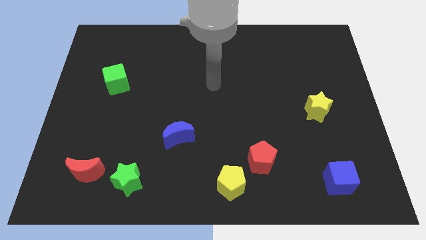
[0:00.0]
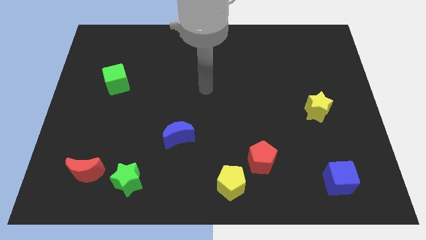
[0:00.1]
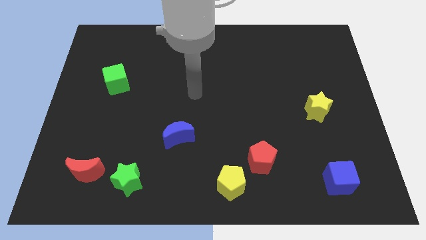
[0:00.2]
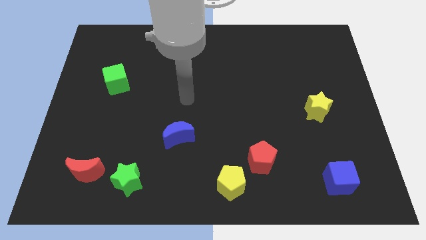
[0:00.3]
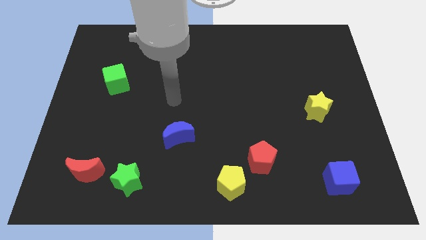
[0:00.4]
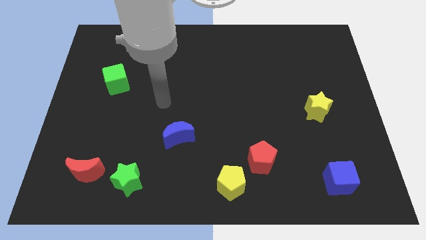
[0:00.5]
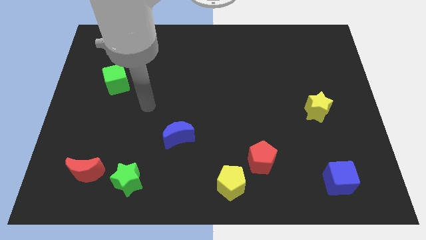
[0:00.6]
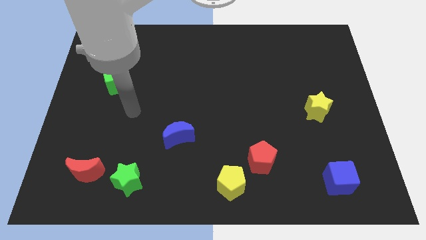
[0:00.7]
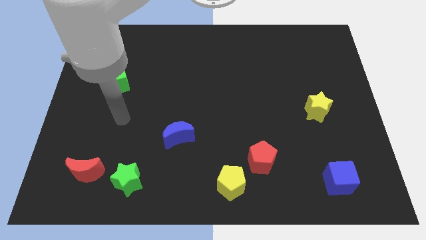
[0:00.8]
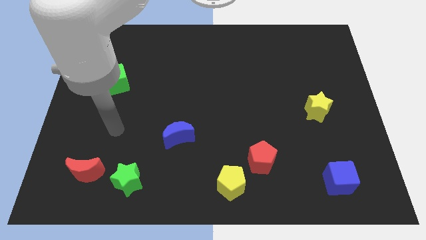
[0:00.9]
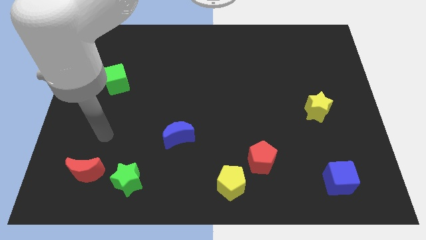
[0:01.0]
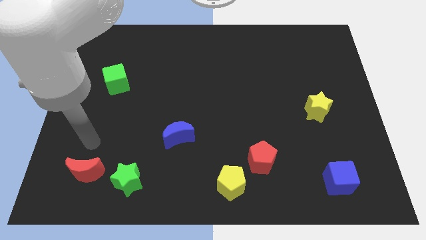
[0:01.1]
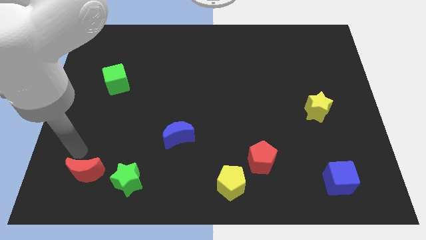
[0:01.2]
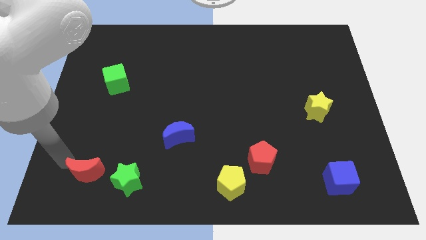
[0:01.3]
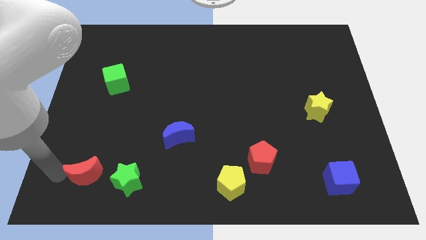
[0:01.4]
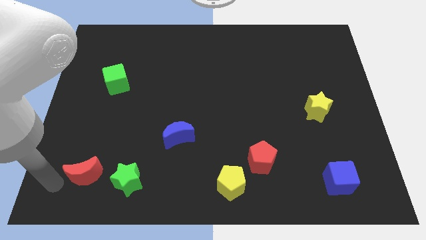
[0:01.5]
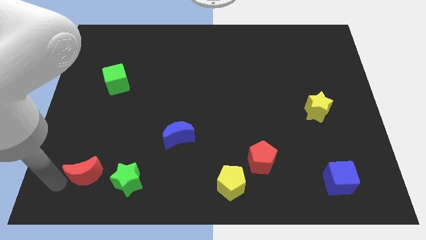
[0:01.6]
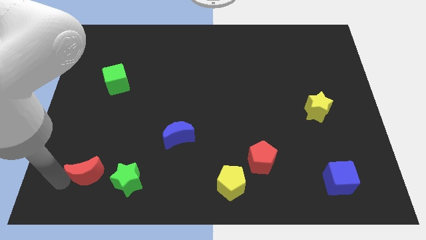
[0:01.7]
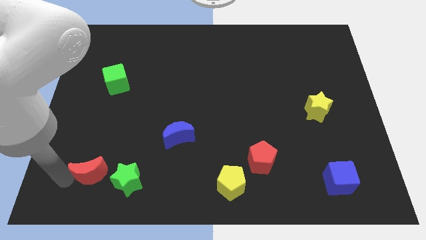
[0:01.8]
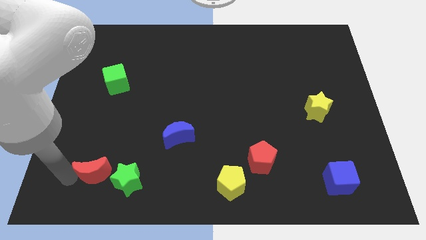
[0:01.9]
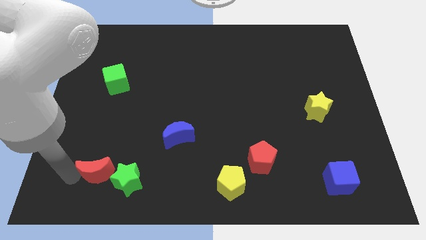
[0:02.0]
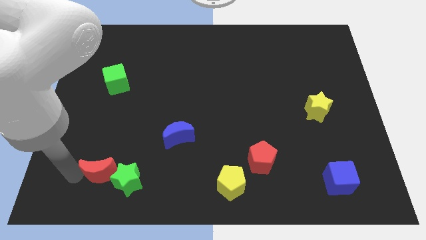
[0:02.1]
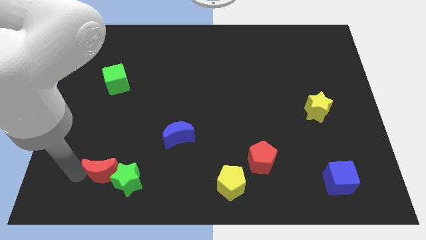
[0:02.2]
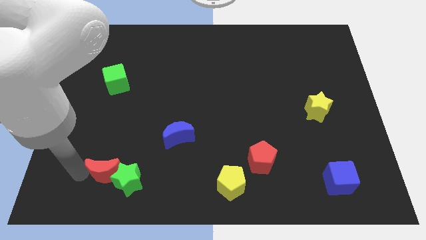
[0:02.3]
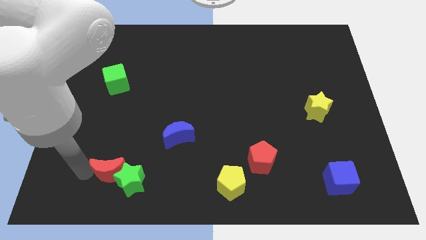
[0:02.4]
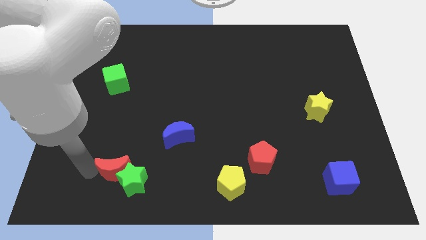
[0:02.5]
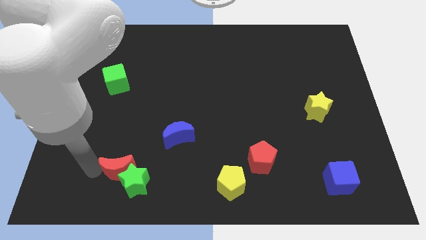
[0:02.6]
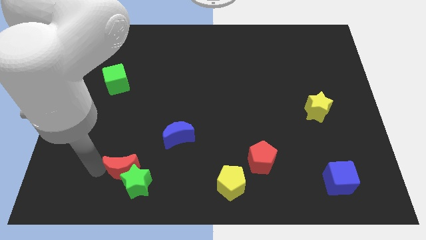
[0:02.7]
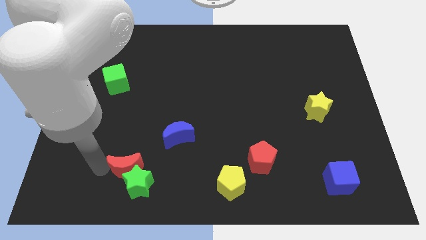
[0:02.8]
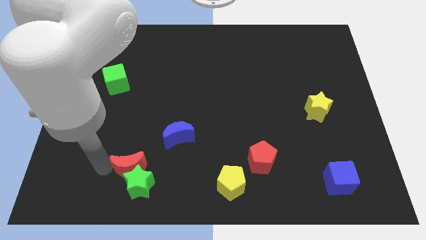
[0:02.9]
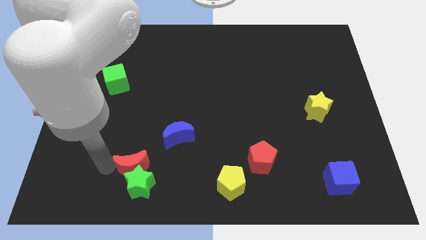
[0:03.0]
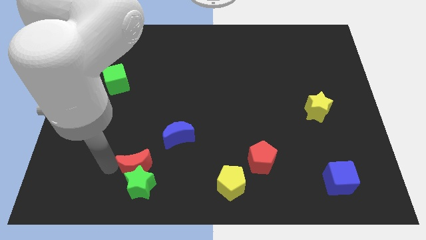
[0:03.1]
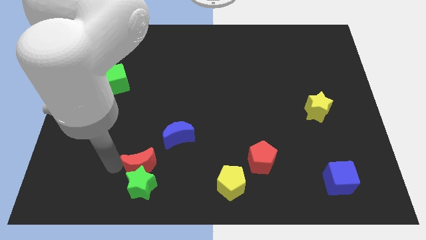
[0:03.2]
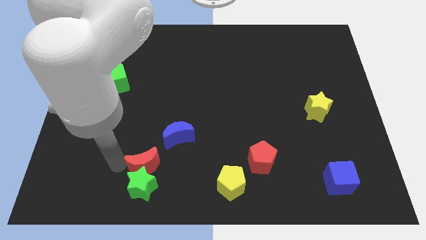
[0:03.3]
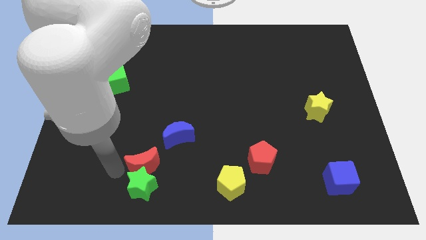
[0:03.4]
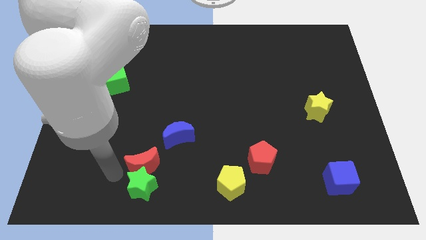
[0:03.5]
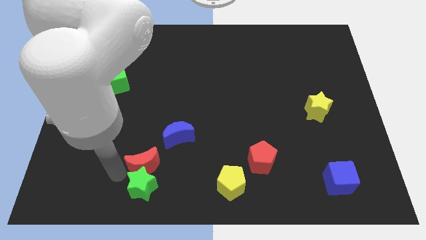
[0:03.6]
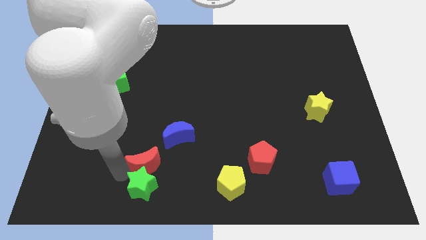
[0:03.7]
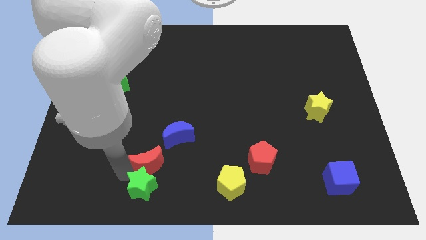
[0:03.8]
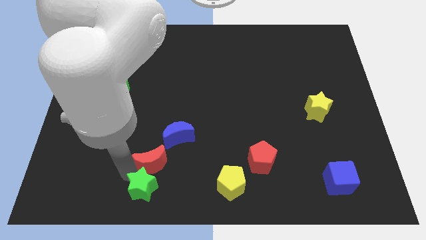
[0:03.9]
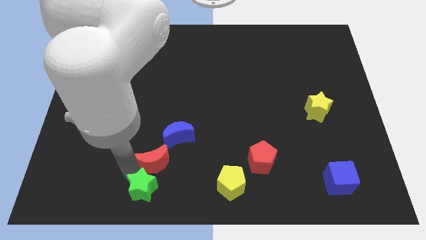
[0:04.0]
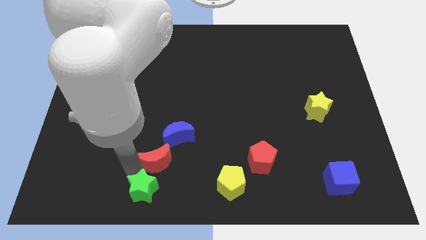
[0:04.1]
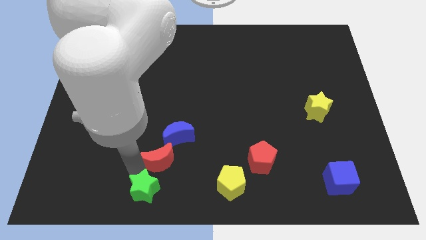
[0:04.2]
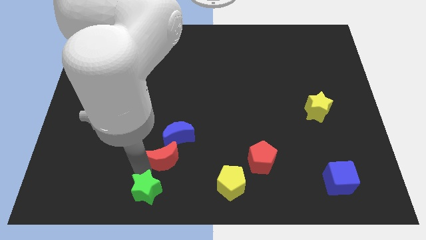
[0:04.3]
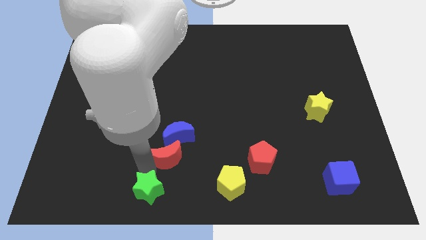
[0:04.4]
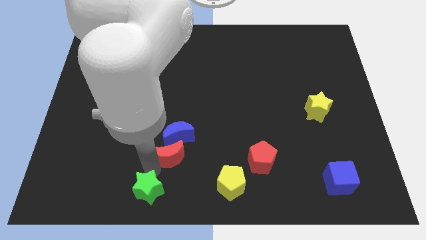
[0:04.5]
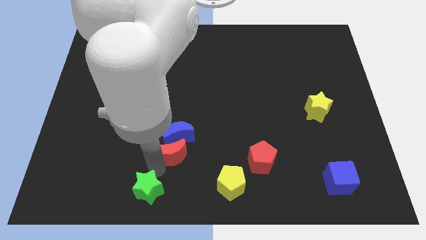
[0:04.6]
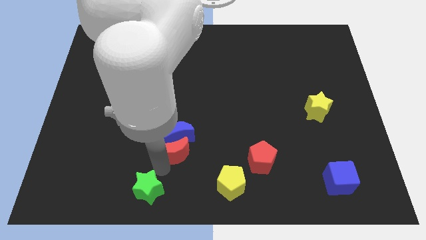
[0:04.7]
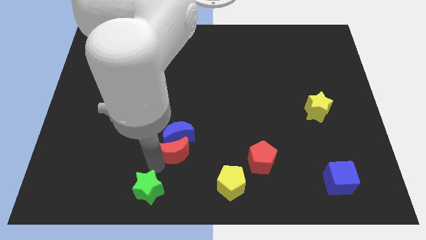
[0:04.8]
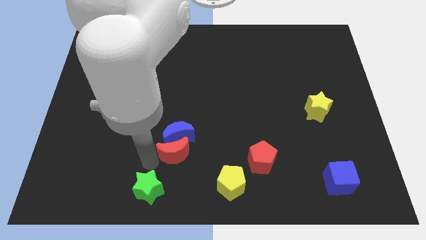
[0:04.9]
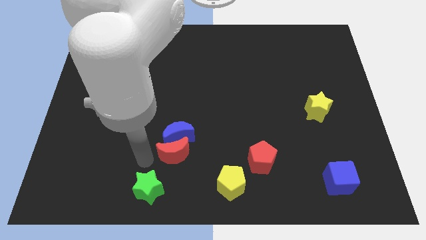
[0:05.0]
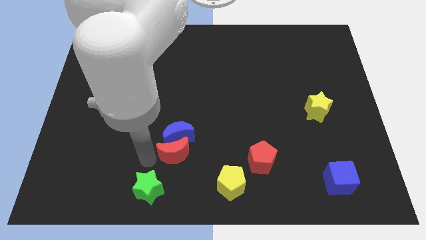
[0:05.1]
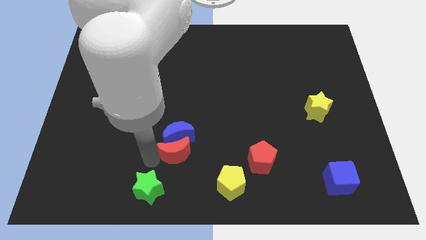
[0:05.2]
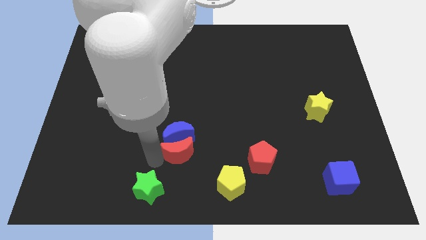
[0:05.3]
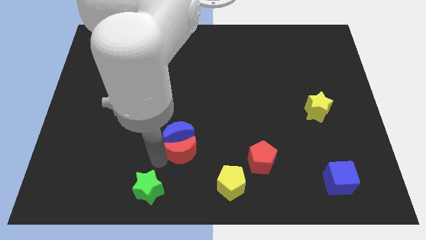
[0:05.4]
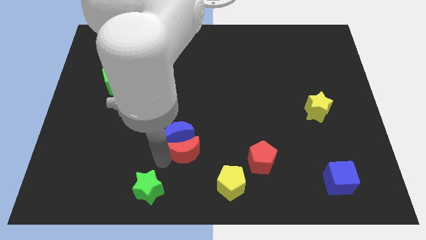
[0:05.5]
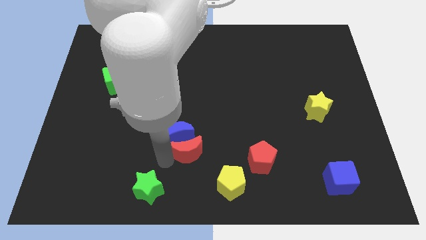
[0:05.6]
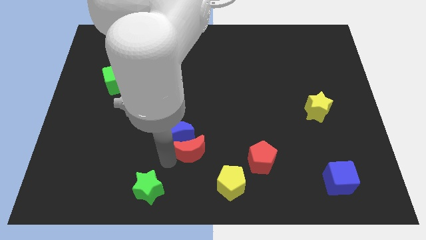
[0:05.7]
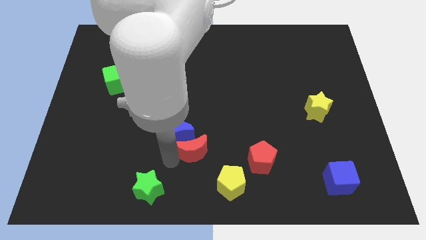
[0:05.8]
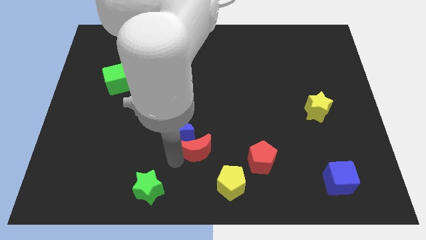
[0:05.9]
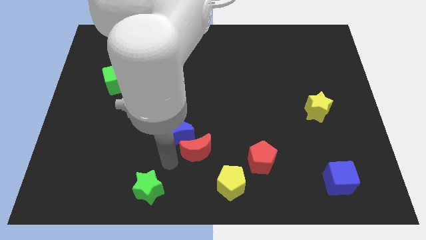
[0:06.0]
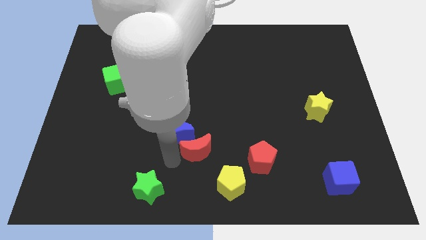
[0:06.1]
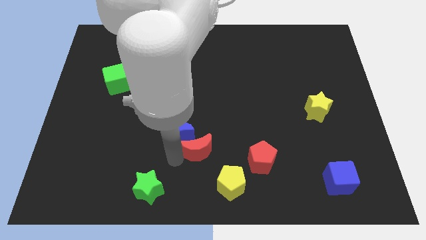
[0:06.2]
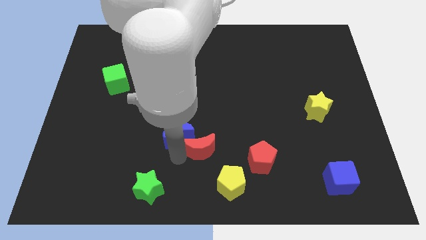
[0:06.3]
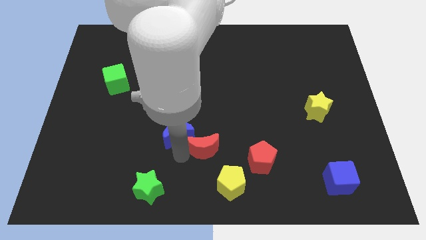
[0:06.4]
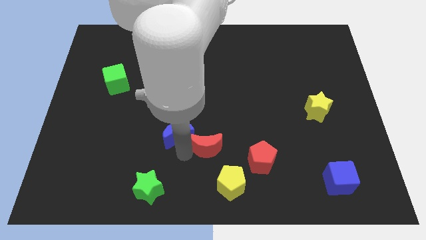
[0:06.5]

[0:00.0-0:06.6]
move the red moon to the top of the yellow pentagon

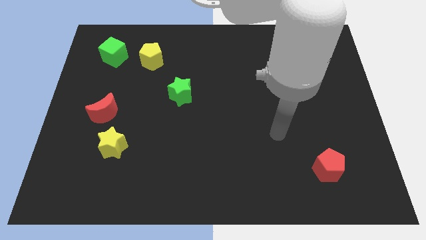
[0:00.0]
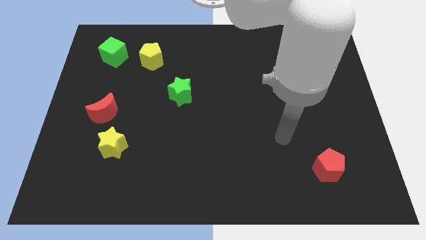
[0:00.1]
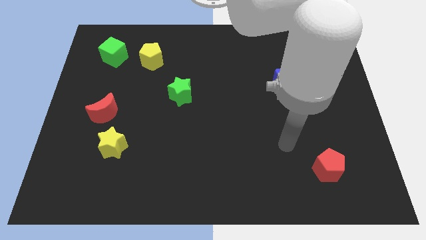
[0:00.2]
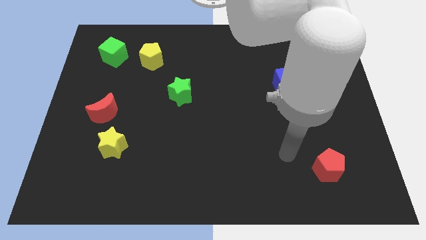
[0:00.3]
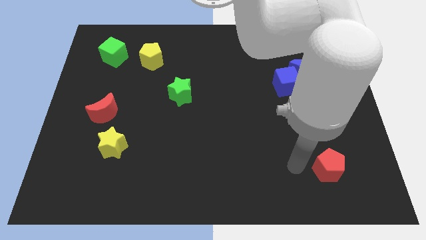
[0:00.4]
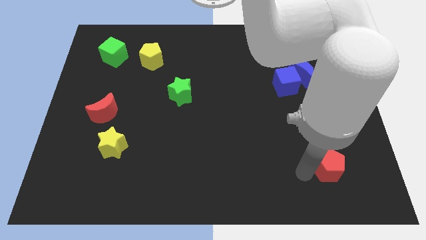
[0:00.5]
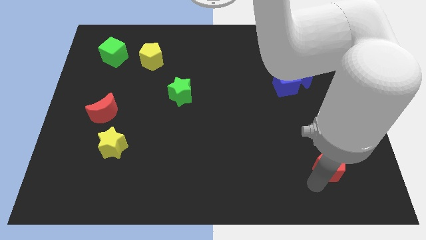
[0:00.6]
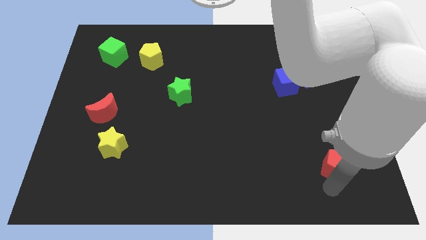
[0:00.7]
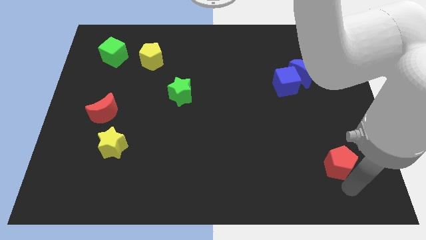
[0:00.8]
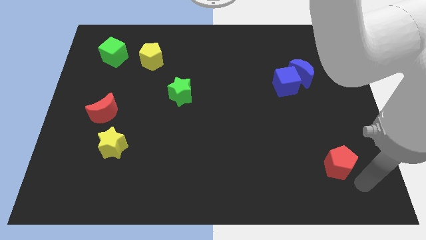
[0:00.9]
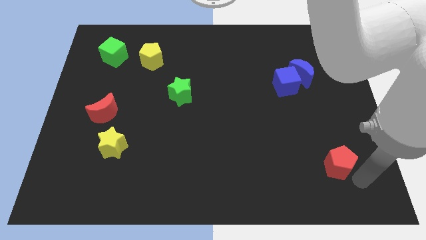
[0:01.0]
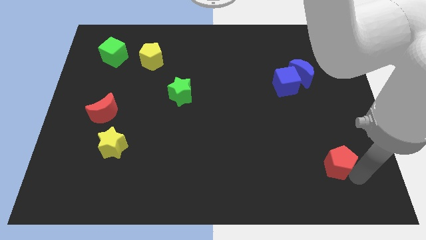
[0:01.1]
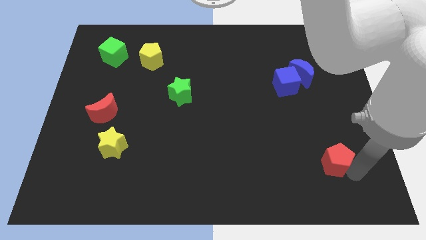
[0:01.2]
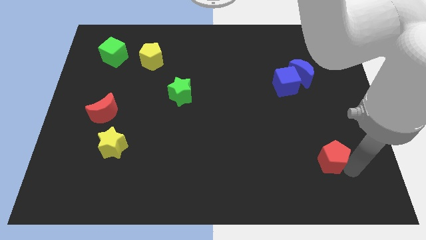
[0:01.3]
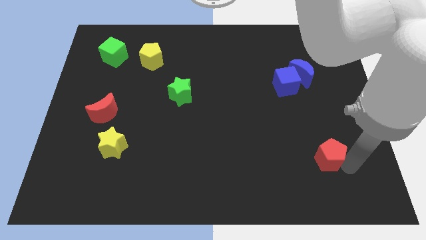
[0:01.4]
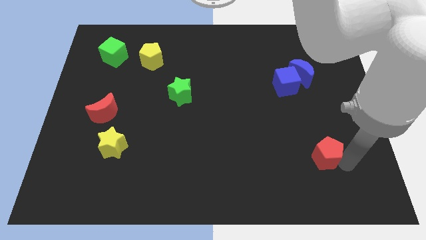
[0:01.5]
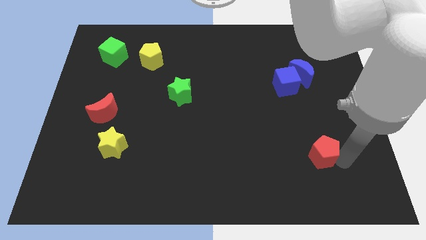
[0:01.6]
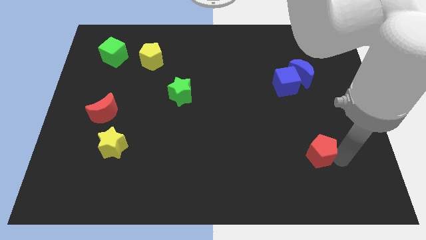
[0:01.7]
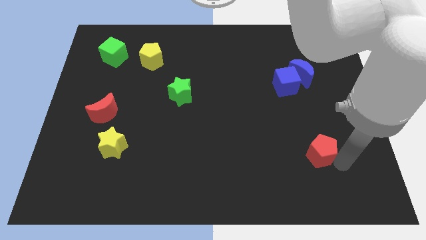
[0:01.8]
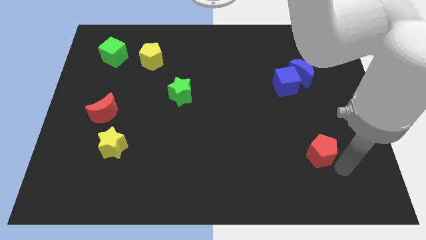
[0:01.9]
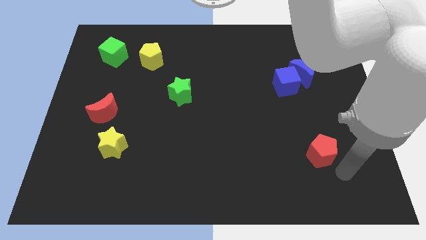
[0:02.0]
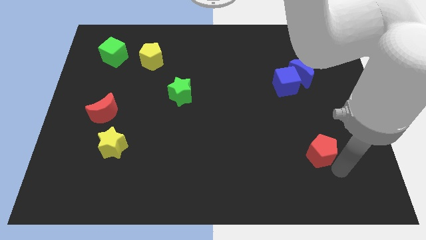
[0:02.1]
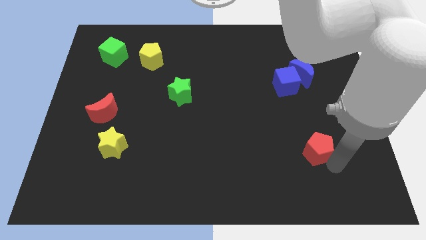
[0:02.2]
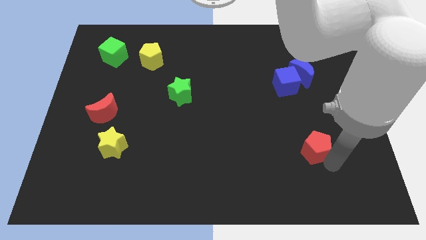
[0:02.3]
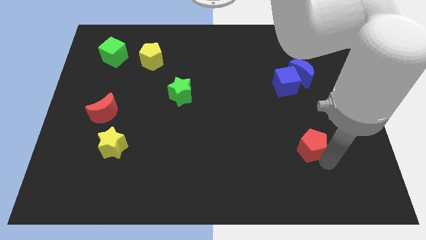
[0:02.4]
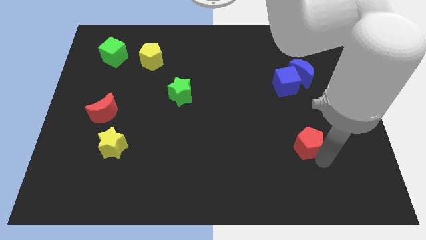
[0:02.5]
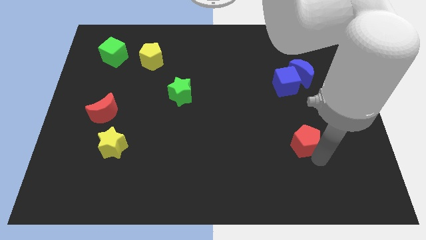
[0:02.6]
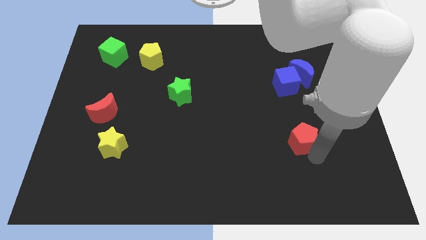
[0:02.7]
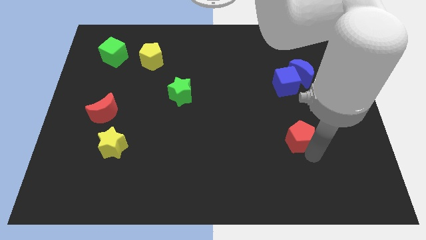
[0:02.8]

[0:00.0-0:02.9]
push the red pentagon to the bottom side of the blue cube
